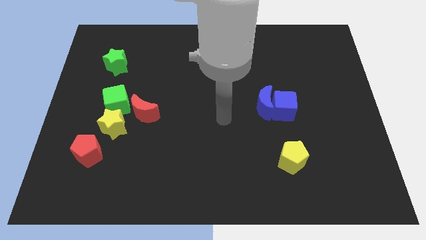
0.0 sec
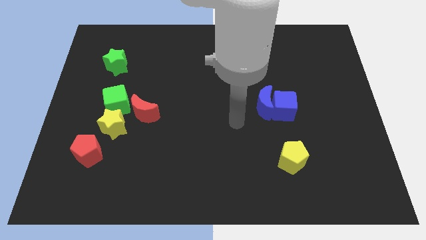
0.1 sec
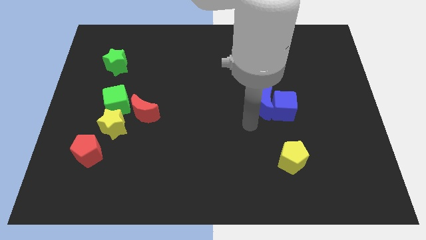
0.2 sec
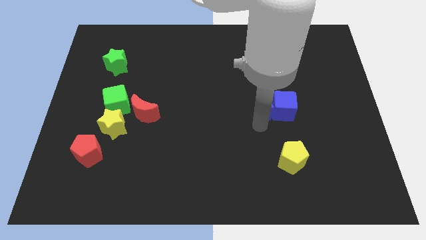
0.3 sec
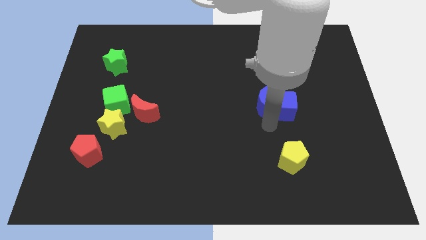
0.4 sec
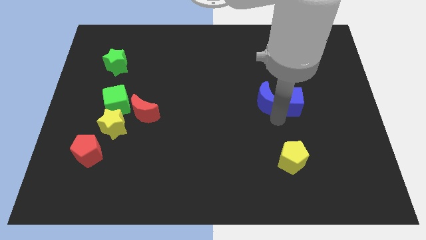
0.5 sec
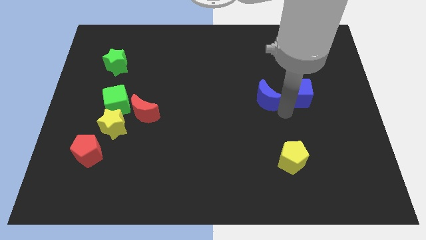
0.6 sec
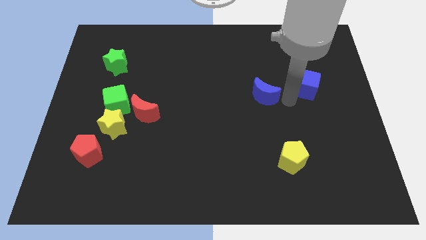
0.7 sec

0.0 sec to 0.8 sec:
move the blue moon away from the blue cube

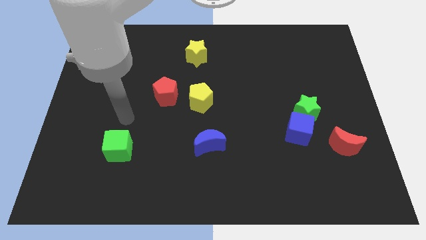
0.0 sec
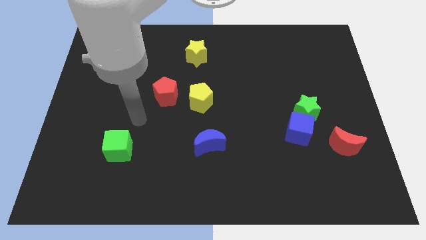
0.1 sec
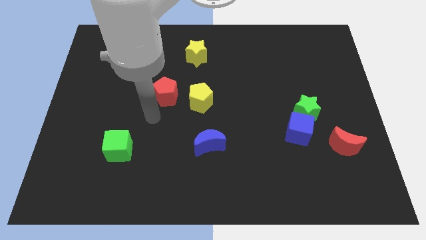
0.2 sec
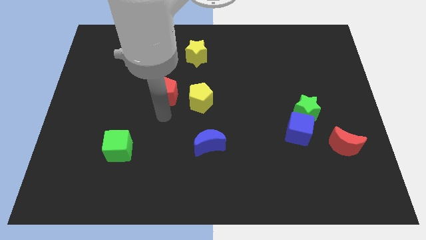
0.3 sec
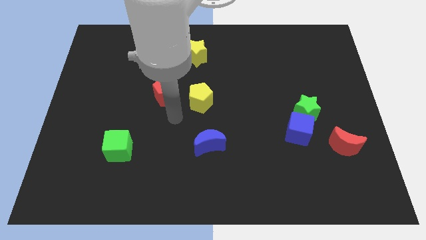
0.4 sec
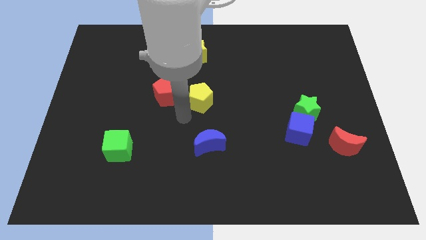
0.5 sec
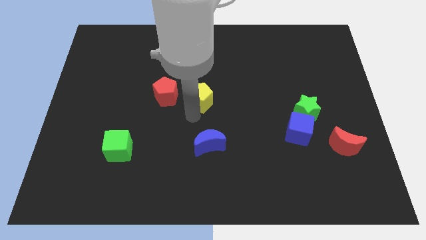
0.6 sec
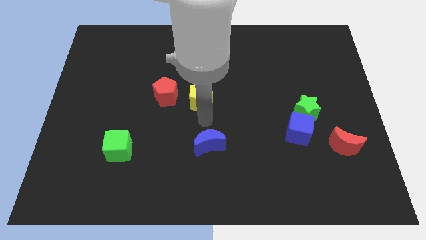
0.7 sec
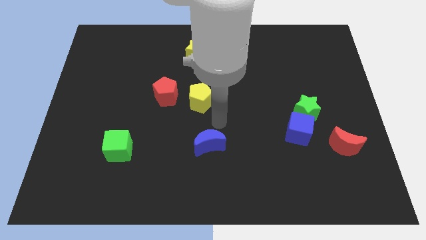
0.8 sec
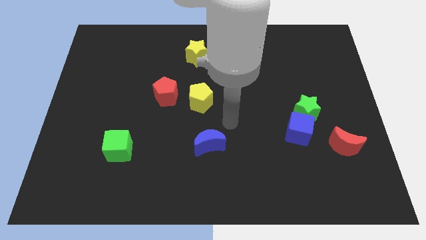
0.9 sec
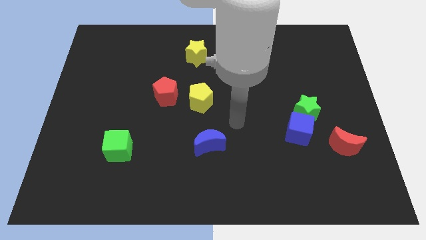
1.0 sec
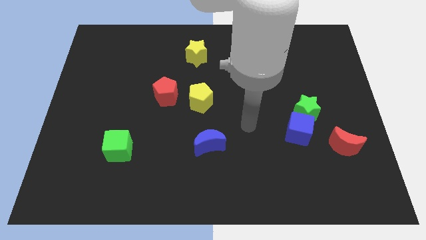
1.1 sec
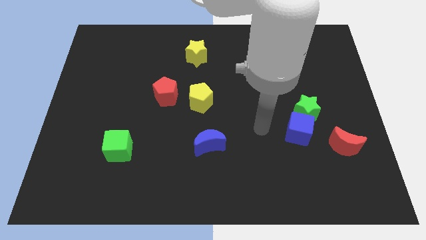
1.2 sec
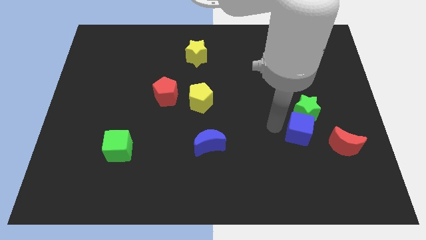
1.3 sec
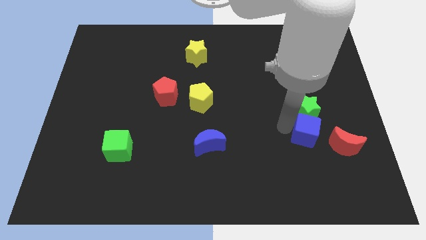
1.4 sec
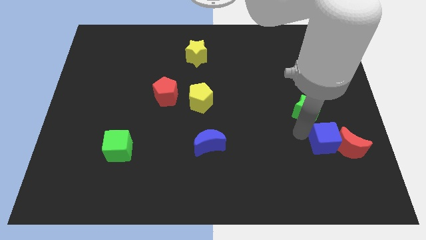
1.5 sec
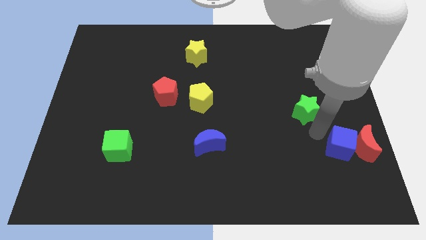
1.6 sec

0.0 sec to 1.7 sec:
pull the green star apart from the blue cube

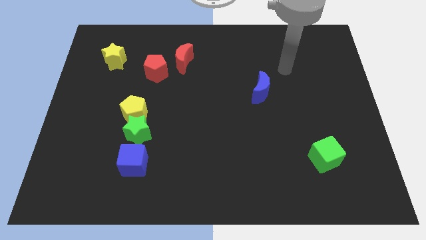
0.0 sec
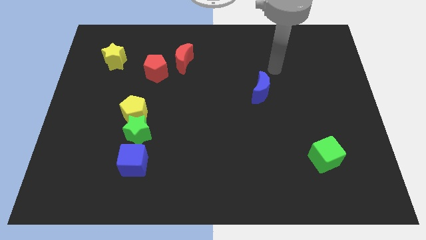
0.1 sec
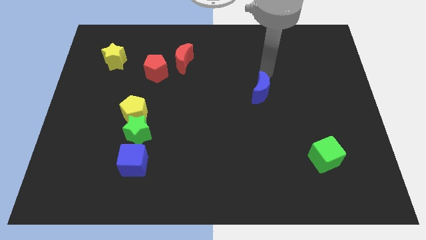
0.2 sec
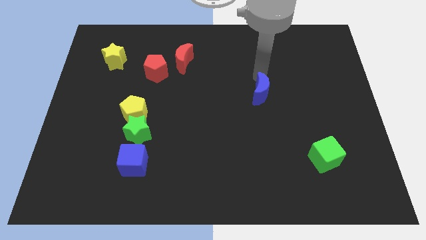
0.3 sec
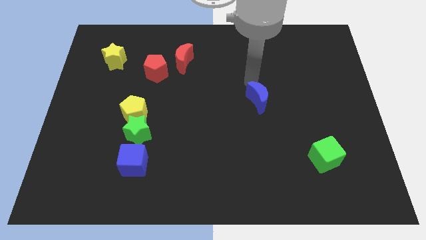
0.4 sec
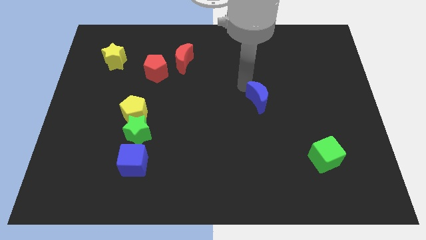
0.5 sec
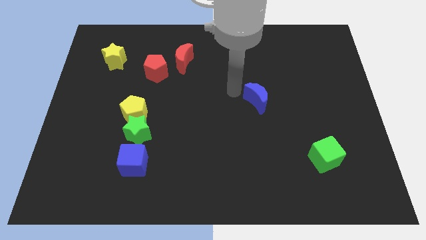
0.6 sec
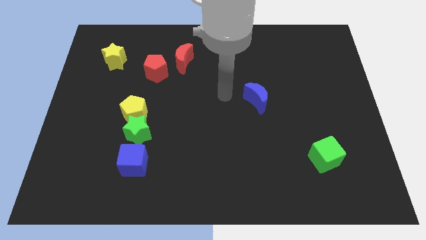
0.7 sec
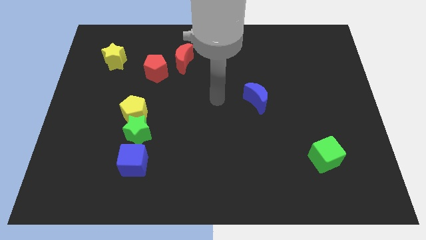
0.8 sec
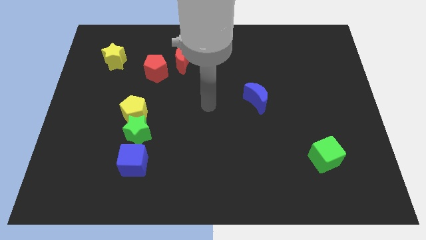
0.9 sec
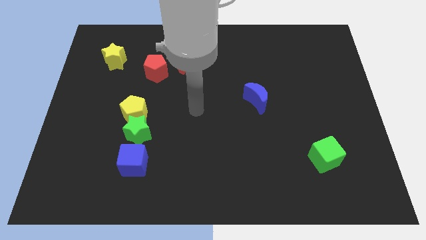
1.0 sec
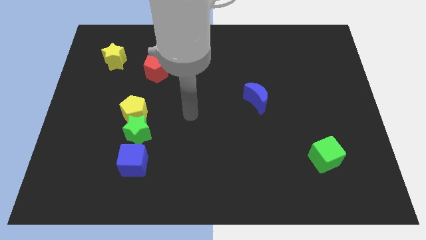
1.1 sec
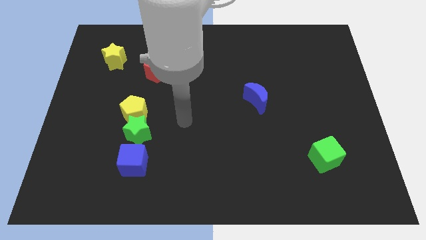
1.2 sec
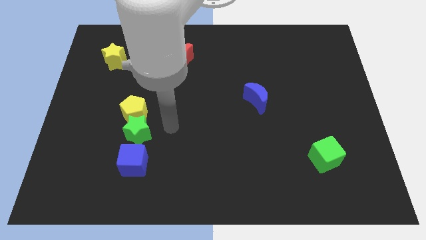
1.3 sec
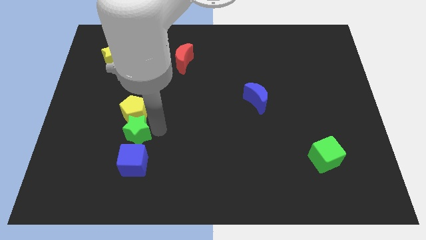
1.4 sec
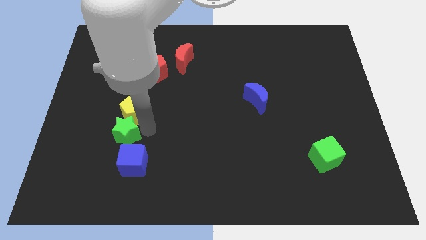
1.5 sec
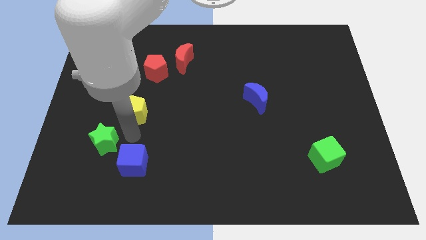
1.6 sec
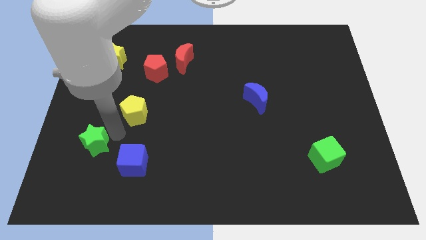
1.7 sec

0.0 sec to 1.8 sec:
separate the yellow pentagon from the green star

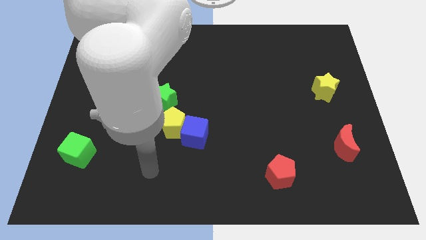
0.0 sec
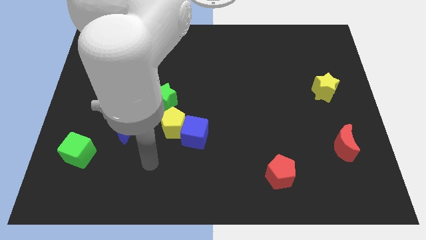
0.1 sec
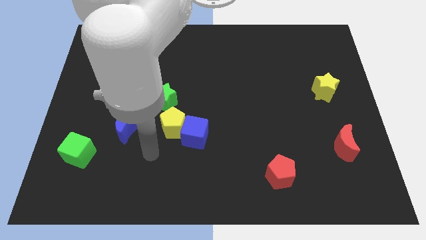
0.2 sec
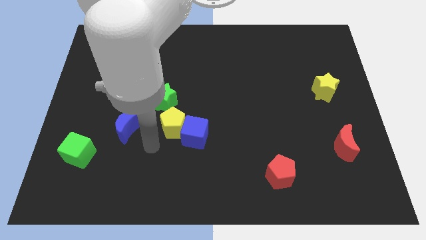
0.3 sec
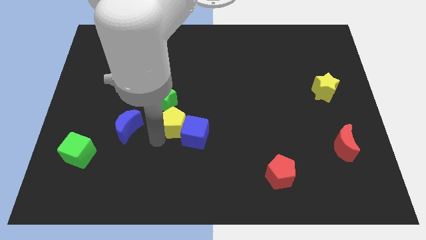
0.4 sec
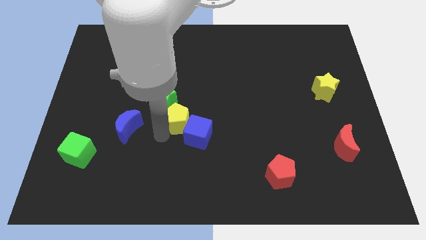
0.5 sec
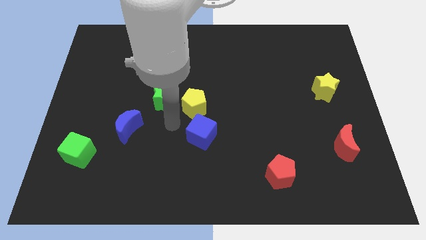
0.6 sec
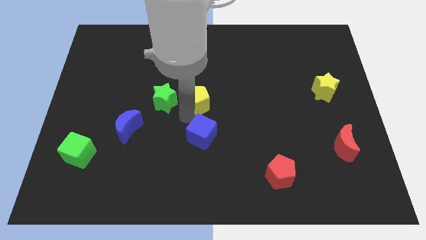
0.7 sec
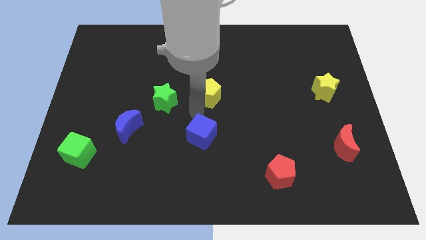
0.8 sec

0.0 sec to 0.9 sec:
separate the blue cube from the yellow pentagon

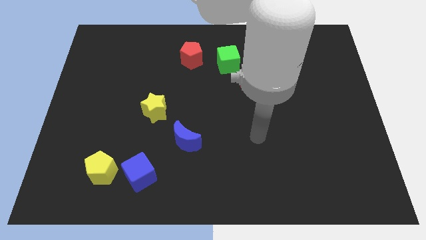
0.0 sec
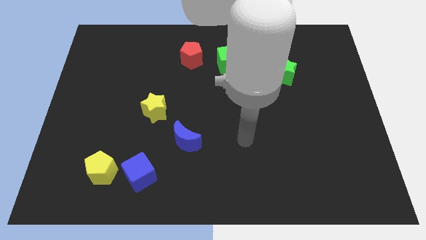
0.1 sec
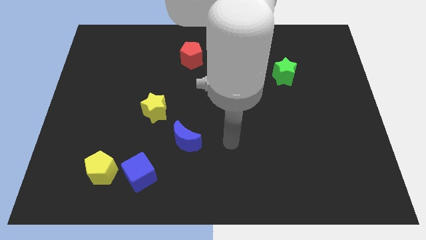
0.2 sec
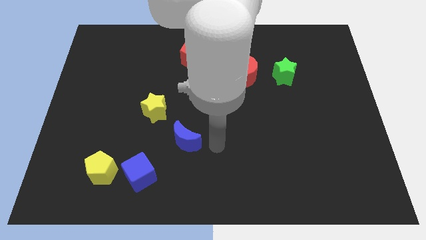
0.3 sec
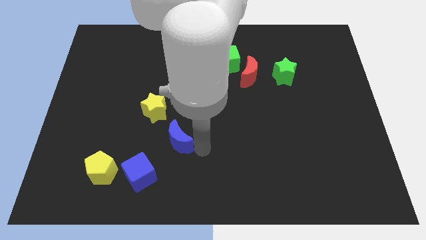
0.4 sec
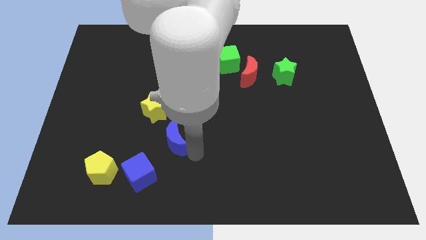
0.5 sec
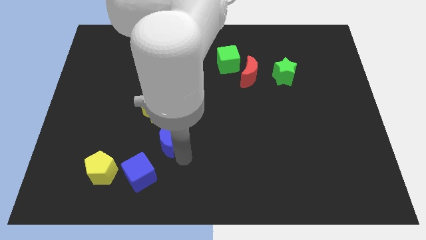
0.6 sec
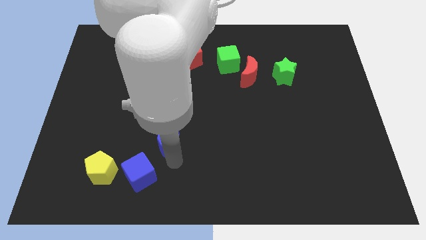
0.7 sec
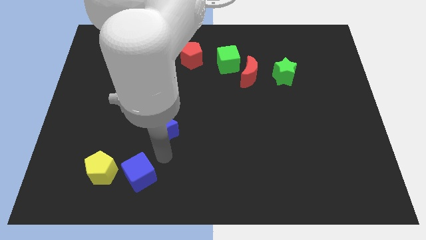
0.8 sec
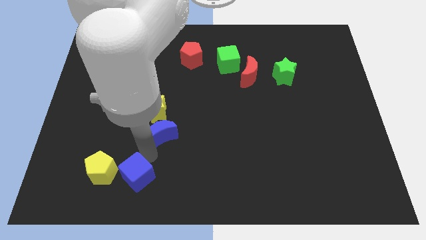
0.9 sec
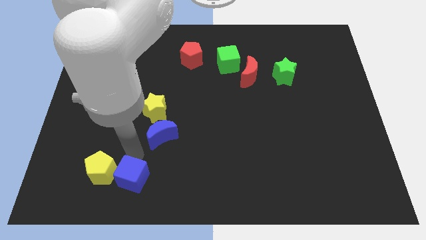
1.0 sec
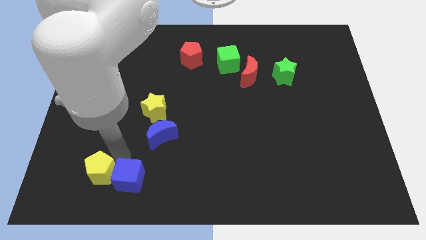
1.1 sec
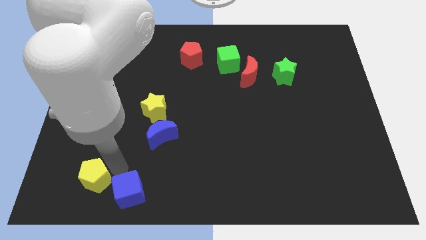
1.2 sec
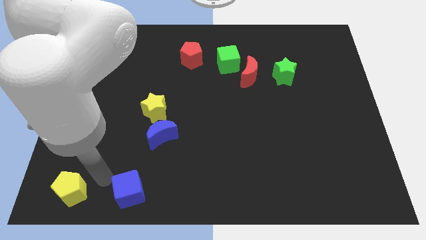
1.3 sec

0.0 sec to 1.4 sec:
pull the blue cube apart from the yellow pentagon

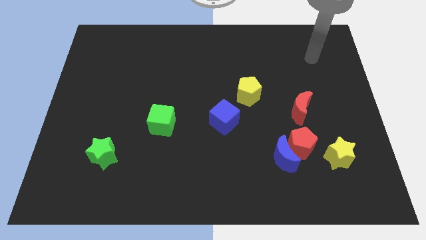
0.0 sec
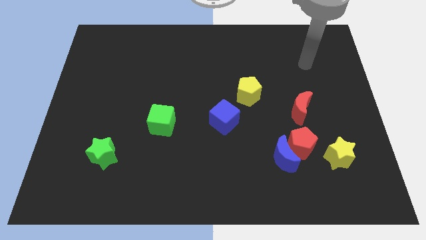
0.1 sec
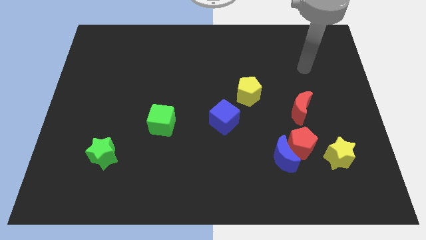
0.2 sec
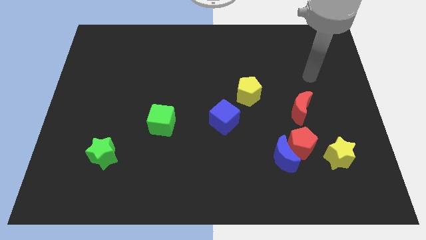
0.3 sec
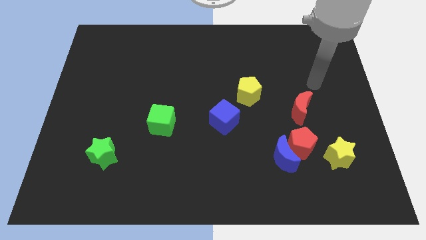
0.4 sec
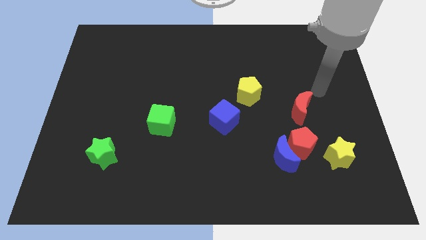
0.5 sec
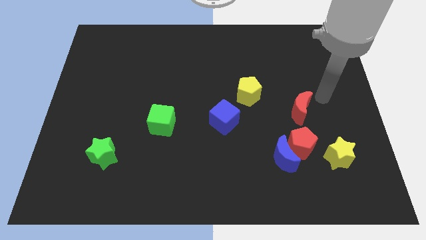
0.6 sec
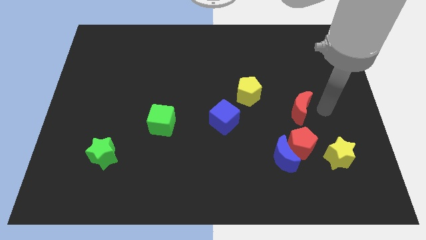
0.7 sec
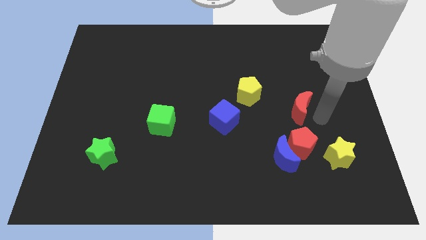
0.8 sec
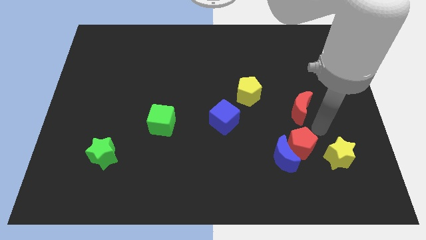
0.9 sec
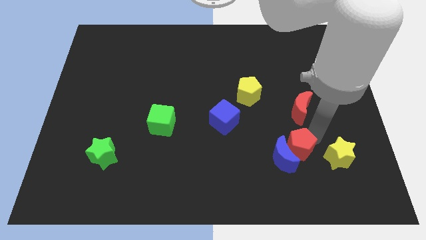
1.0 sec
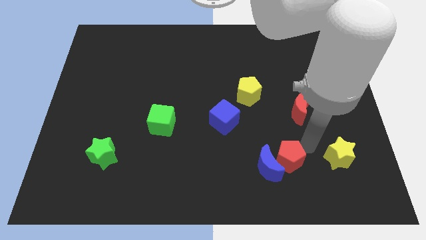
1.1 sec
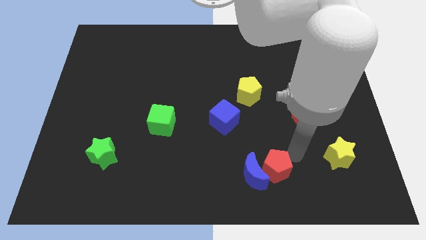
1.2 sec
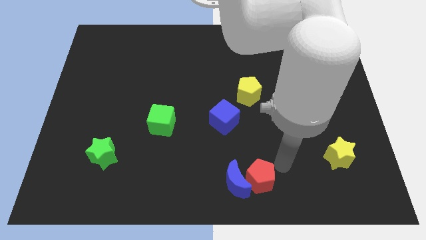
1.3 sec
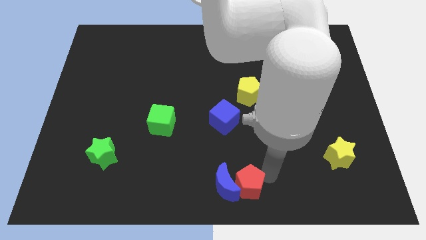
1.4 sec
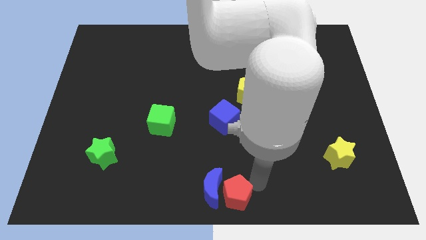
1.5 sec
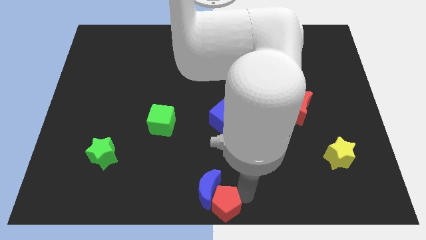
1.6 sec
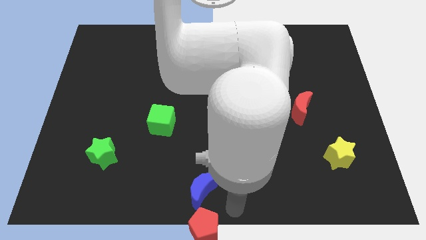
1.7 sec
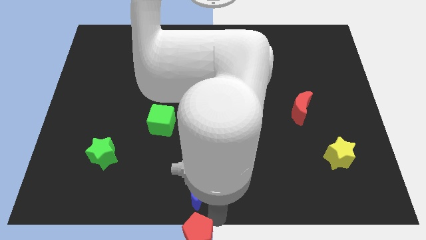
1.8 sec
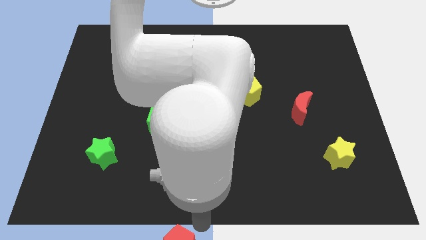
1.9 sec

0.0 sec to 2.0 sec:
separate the blue moon from the red pentagon

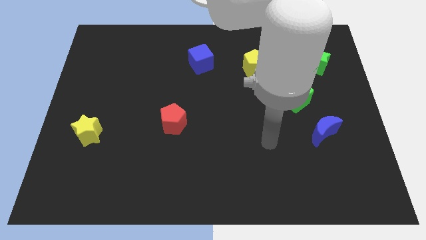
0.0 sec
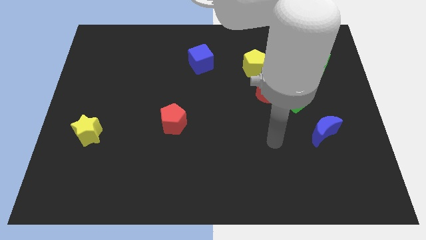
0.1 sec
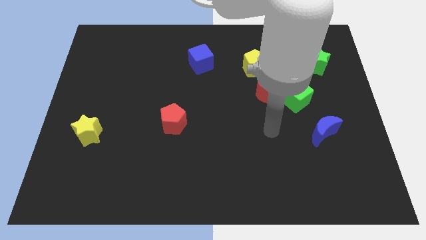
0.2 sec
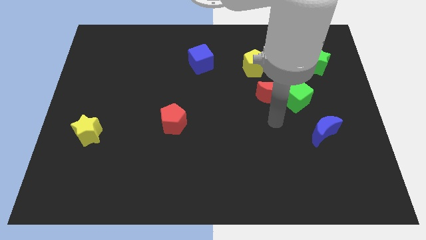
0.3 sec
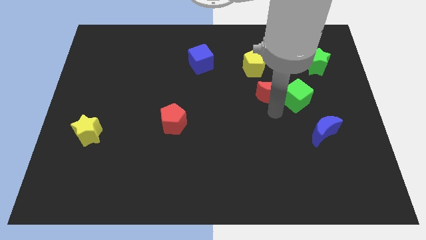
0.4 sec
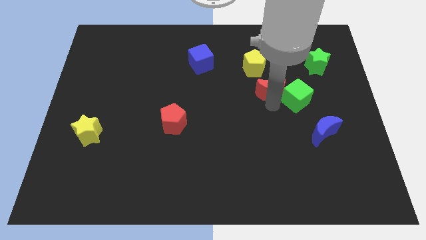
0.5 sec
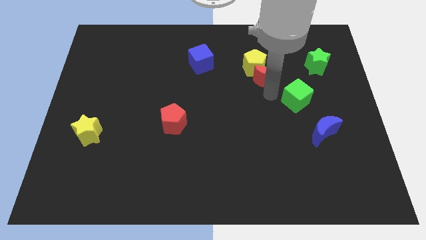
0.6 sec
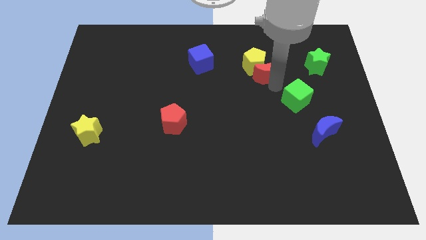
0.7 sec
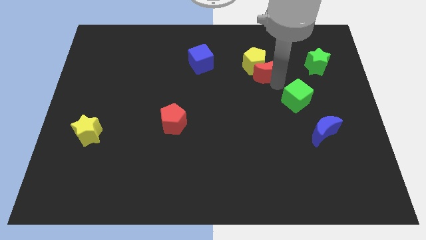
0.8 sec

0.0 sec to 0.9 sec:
separate the green cube from the red moon
